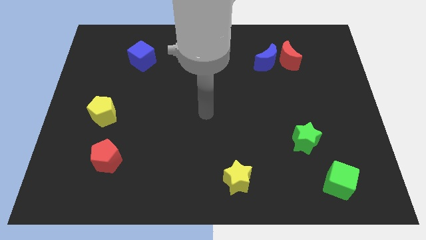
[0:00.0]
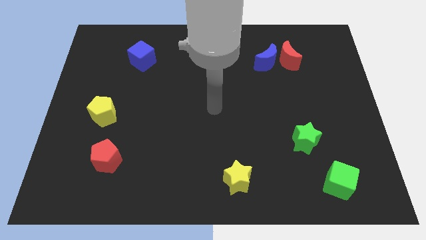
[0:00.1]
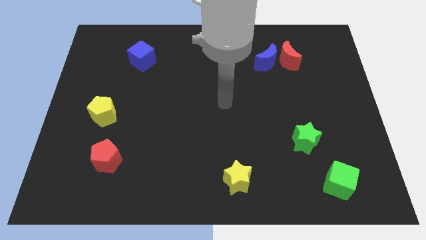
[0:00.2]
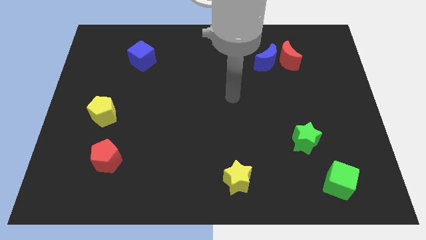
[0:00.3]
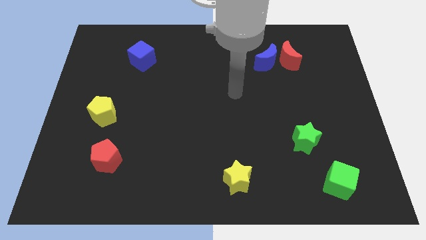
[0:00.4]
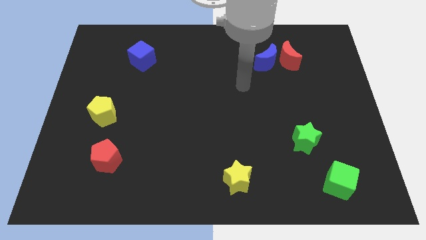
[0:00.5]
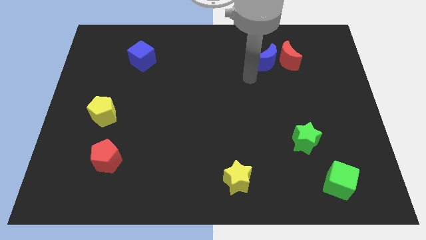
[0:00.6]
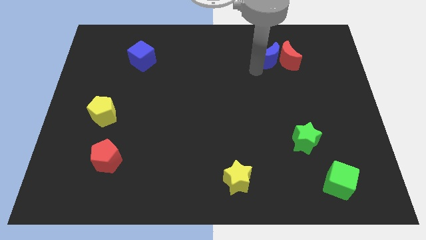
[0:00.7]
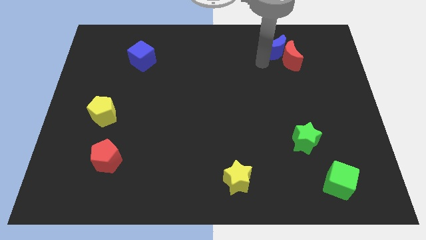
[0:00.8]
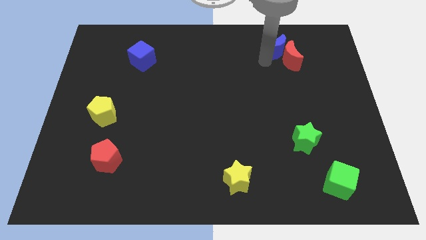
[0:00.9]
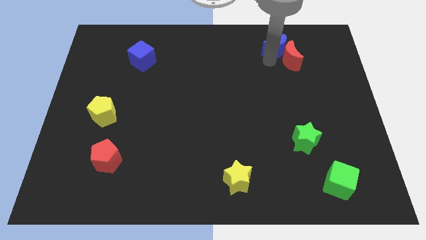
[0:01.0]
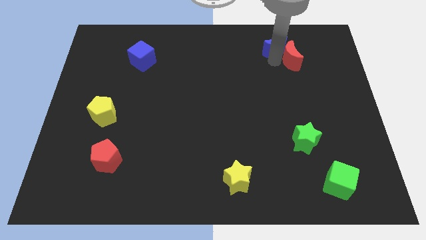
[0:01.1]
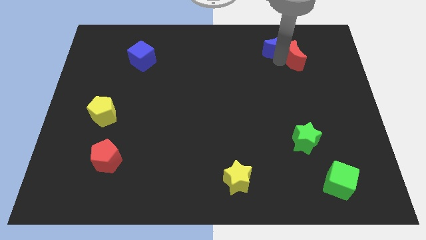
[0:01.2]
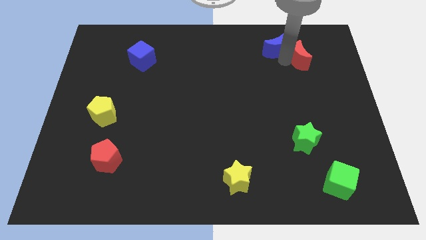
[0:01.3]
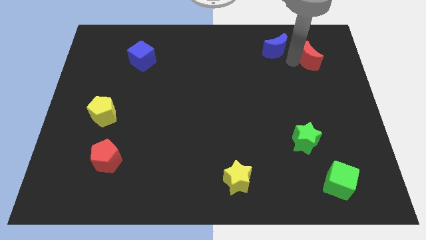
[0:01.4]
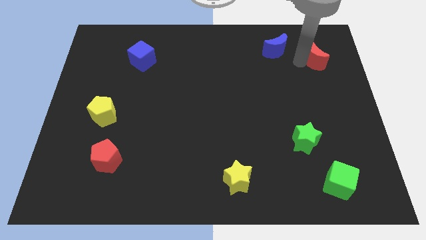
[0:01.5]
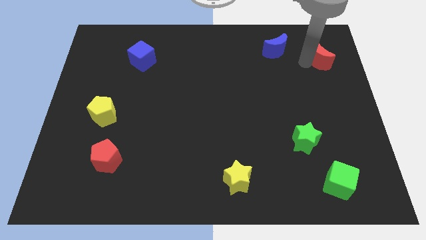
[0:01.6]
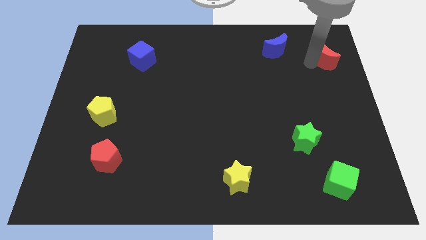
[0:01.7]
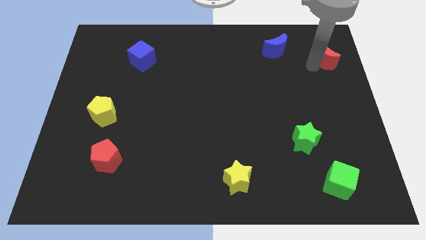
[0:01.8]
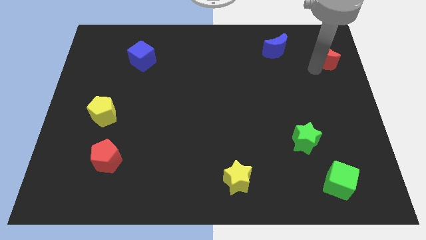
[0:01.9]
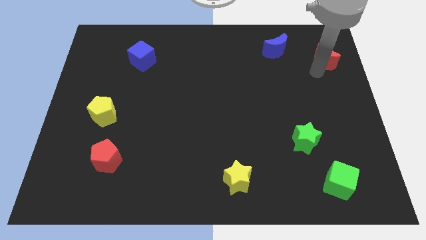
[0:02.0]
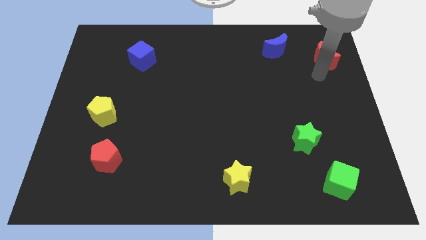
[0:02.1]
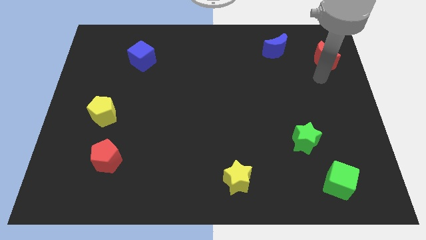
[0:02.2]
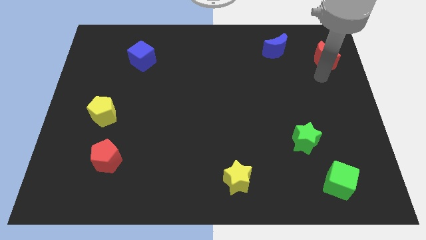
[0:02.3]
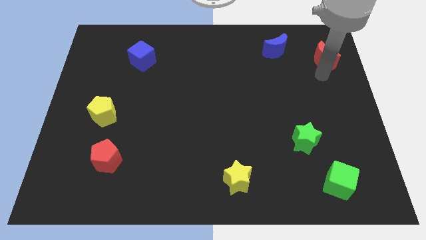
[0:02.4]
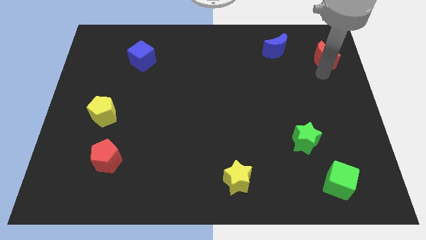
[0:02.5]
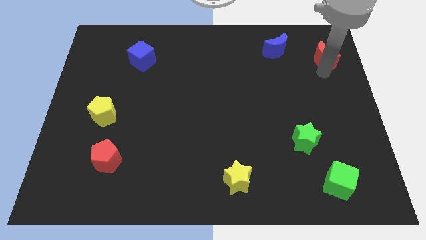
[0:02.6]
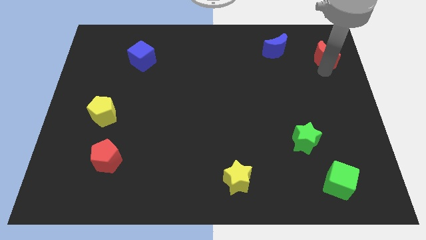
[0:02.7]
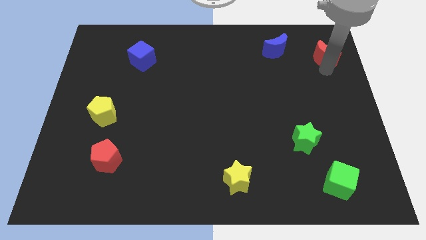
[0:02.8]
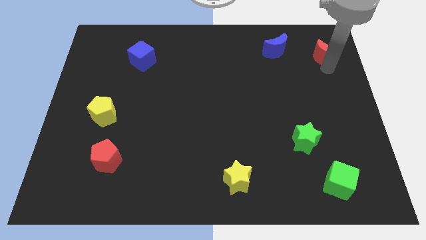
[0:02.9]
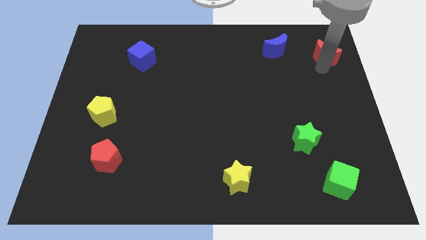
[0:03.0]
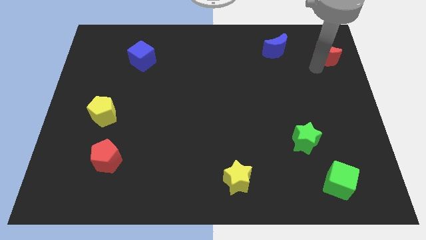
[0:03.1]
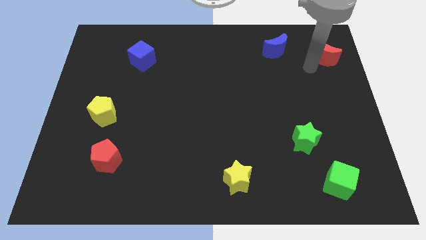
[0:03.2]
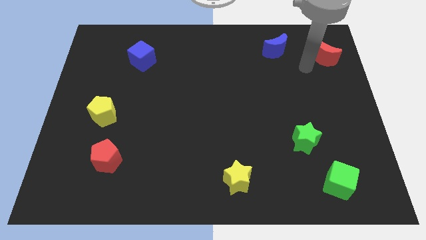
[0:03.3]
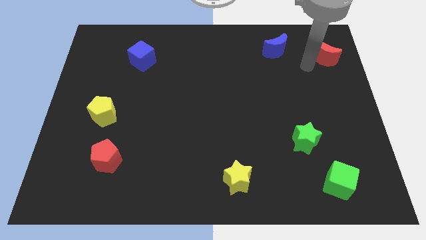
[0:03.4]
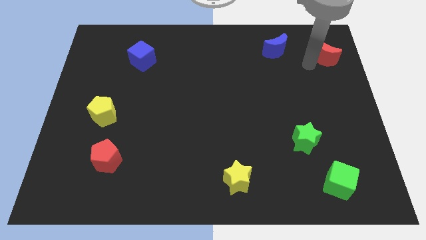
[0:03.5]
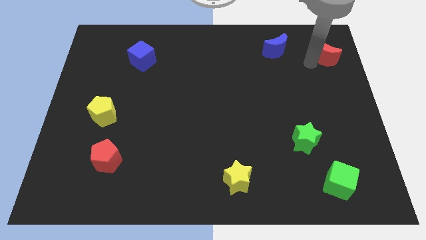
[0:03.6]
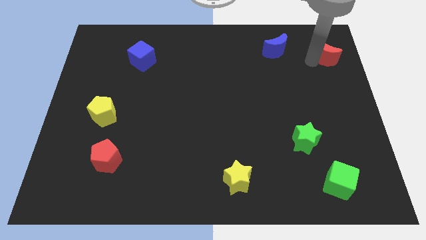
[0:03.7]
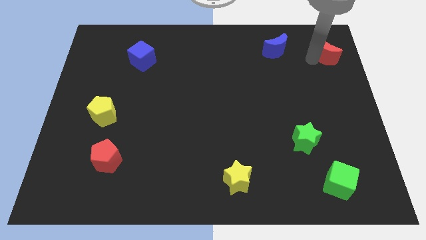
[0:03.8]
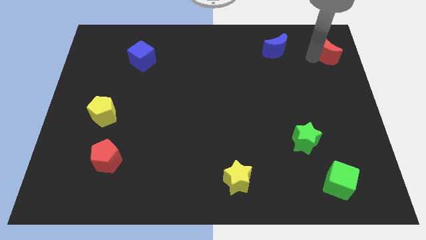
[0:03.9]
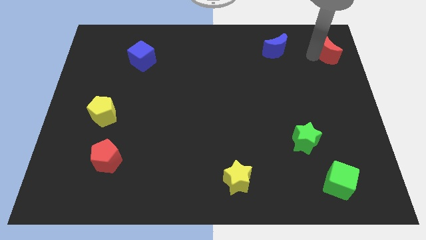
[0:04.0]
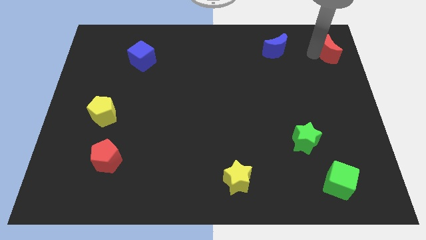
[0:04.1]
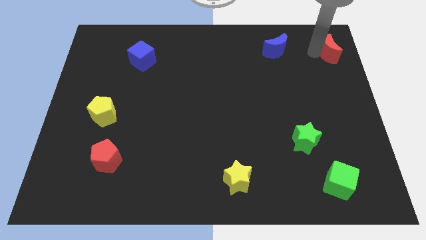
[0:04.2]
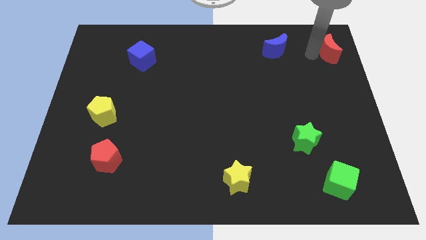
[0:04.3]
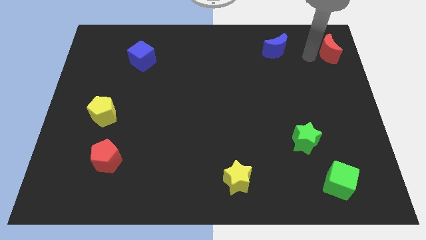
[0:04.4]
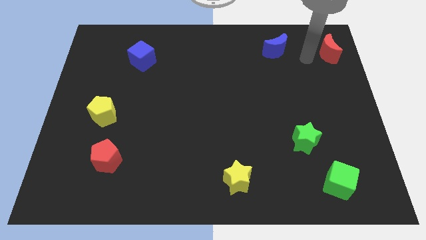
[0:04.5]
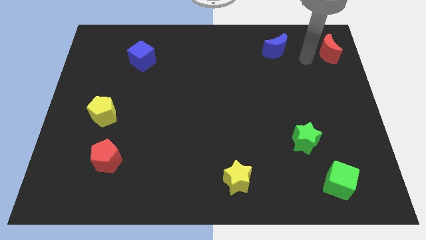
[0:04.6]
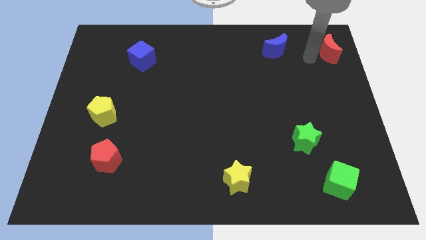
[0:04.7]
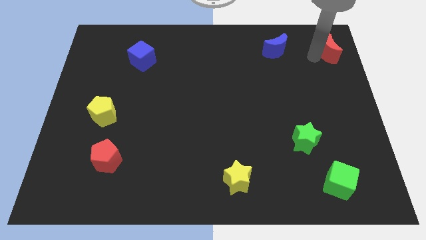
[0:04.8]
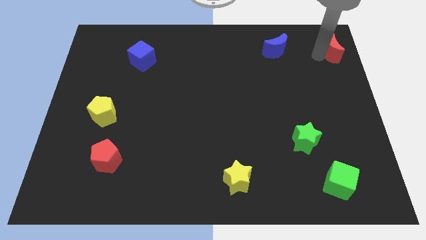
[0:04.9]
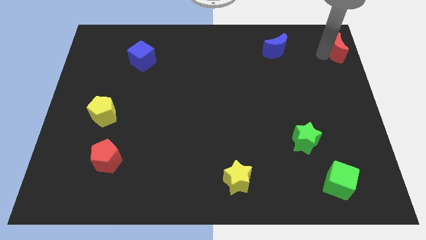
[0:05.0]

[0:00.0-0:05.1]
slide the red moon to the top right of the board

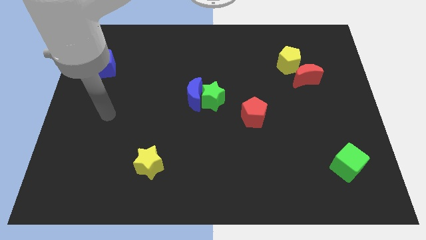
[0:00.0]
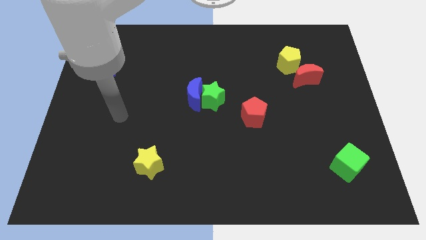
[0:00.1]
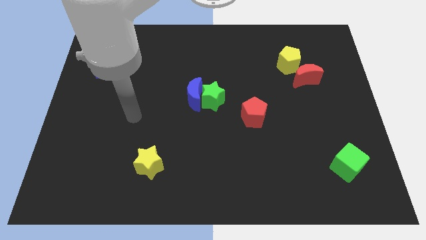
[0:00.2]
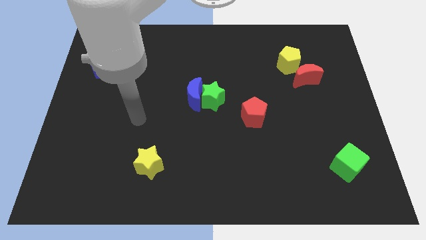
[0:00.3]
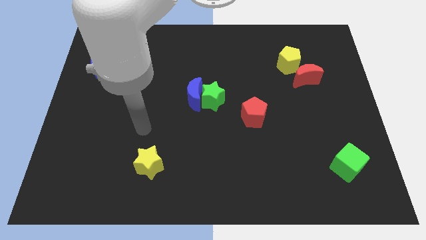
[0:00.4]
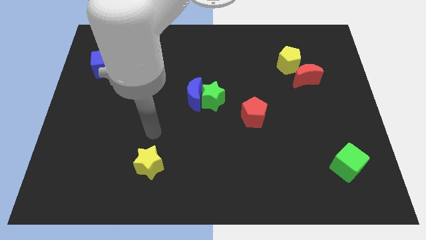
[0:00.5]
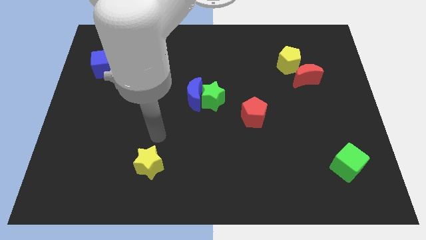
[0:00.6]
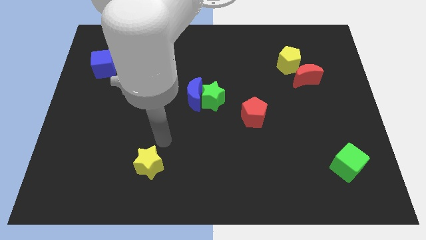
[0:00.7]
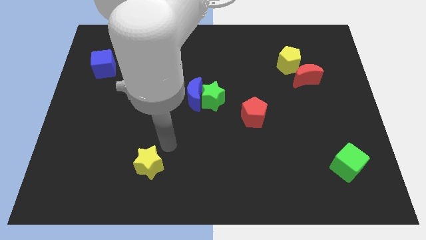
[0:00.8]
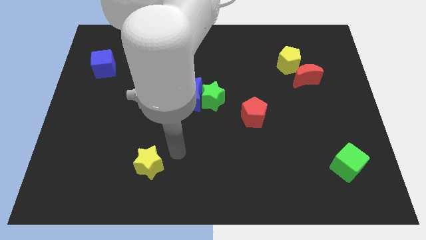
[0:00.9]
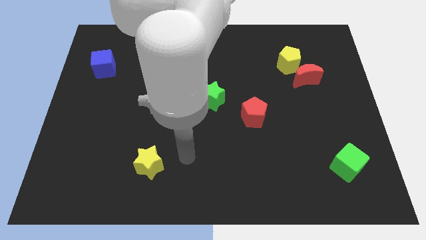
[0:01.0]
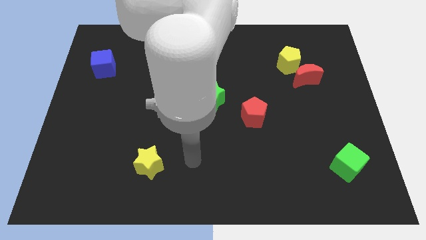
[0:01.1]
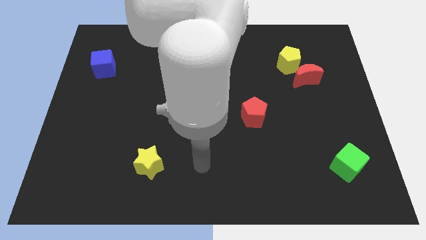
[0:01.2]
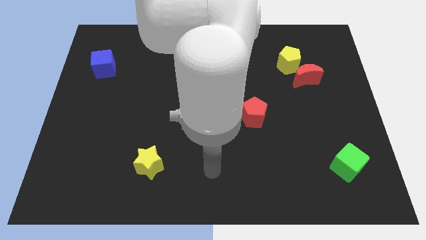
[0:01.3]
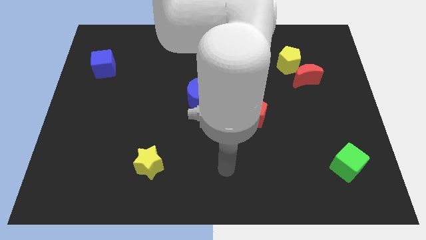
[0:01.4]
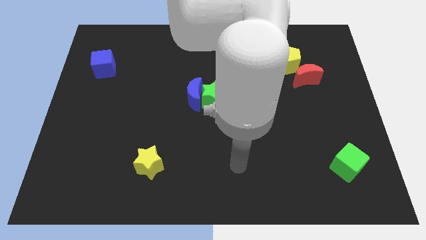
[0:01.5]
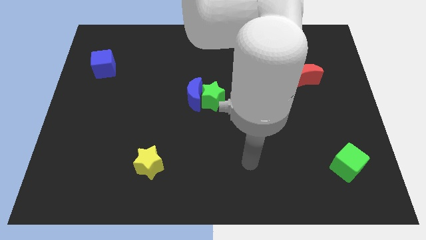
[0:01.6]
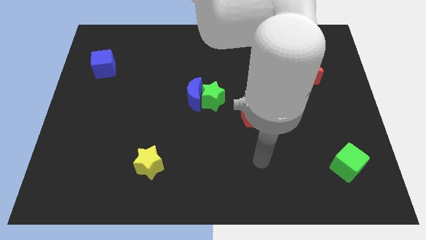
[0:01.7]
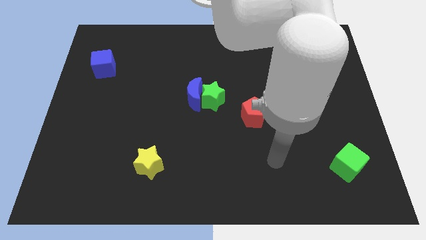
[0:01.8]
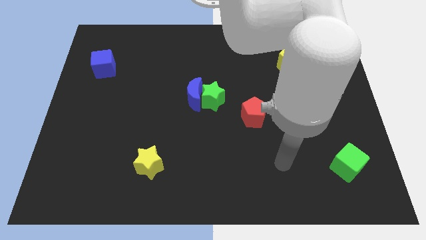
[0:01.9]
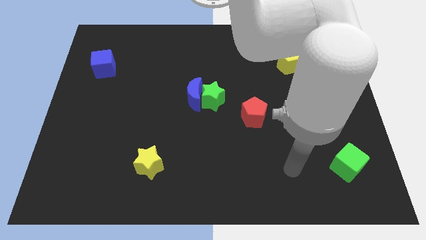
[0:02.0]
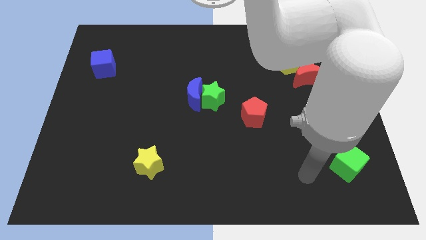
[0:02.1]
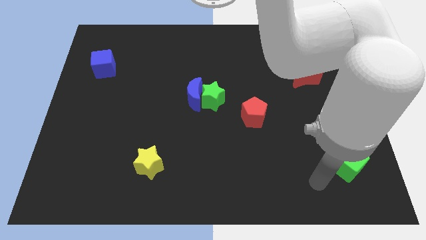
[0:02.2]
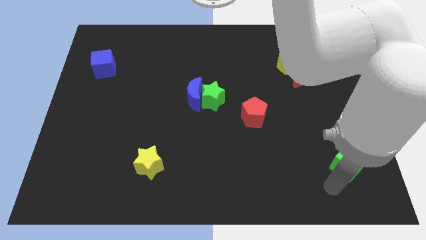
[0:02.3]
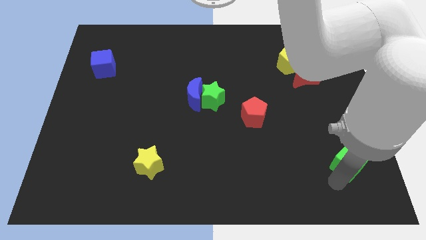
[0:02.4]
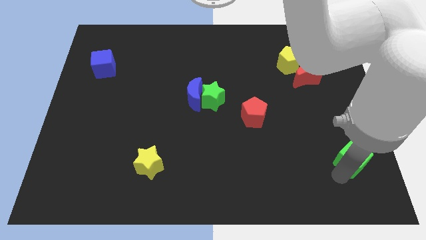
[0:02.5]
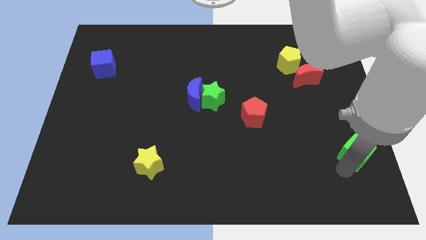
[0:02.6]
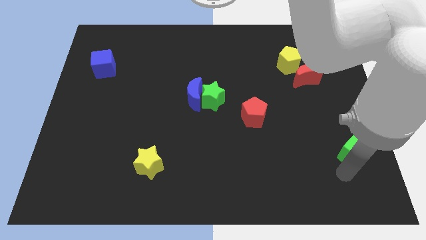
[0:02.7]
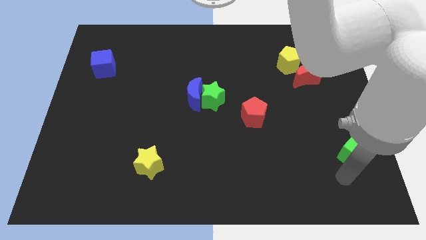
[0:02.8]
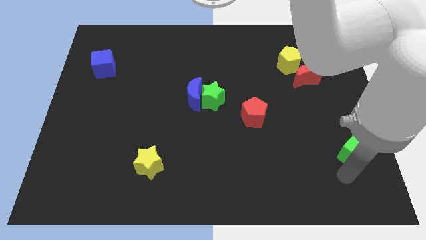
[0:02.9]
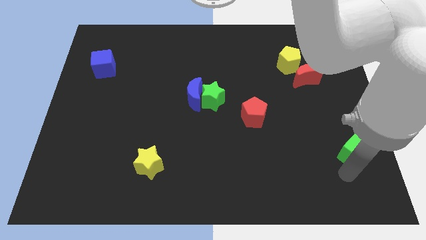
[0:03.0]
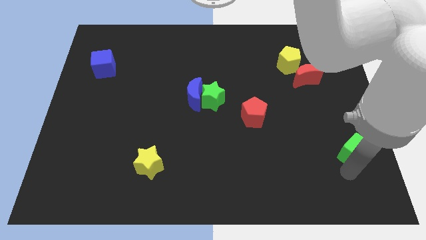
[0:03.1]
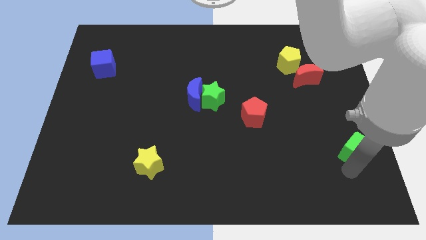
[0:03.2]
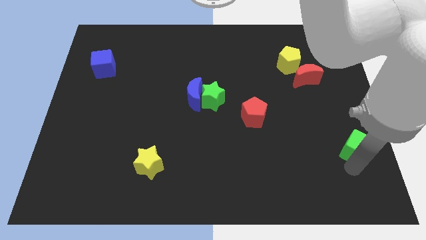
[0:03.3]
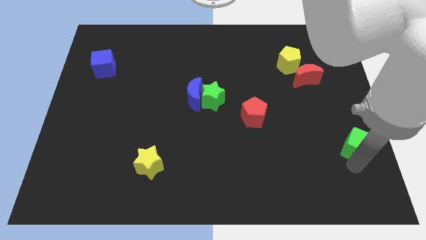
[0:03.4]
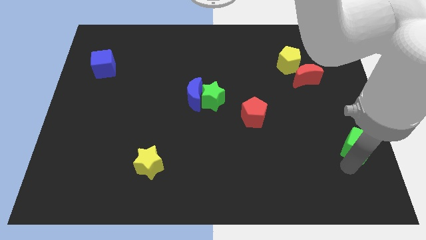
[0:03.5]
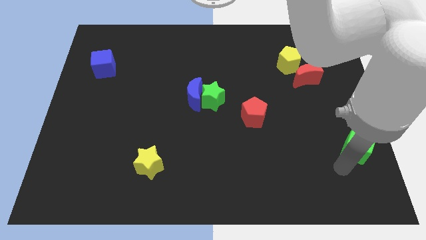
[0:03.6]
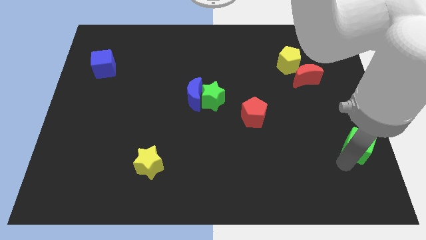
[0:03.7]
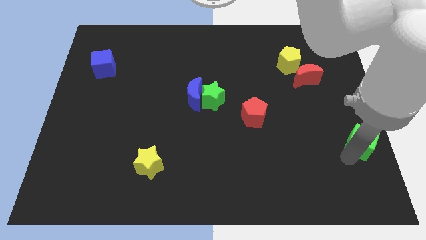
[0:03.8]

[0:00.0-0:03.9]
move the green cube to the center right
